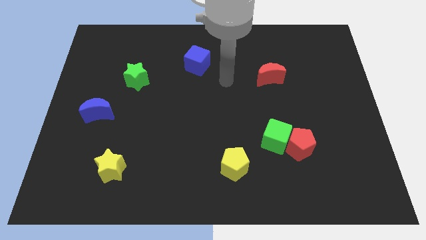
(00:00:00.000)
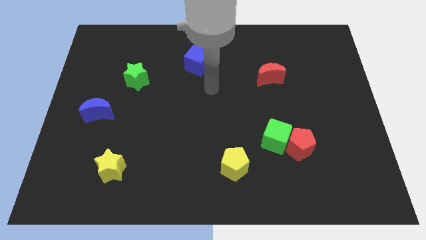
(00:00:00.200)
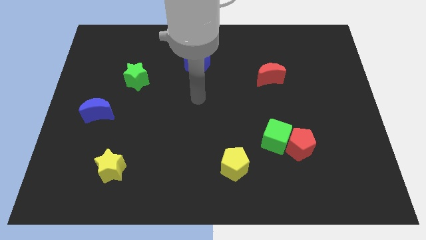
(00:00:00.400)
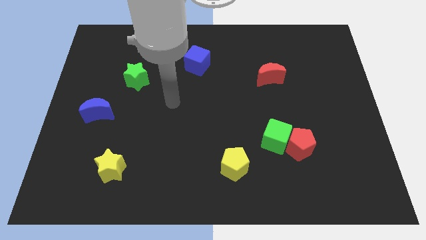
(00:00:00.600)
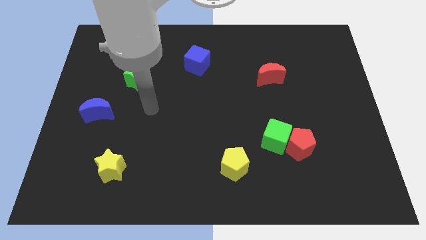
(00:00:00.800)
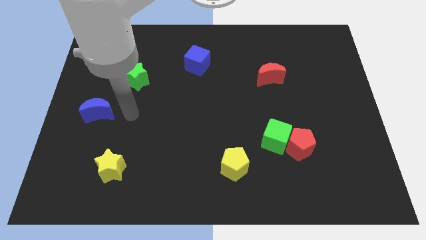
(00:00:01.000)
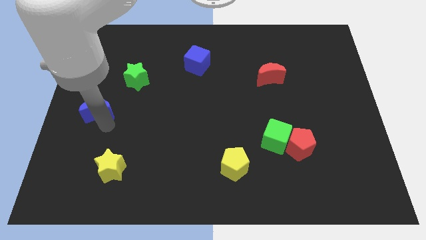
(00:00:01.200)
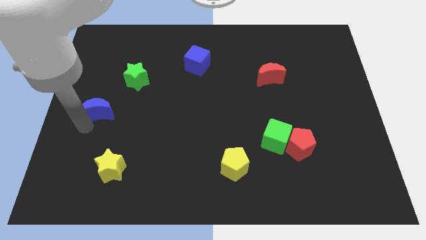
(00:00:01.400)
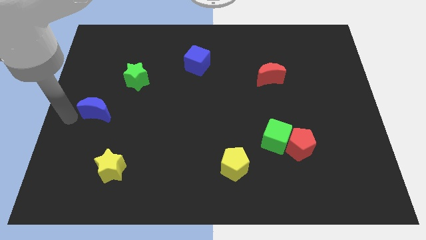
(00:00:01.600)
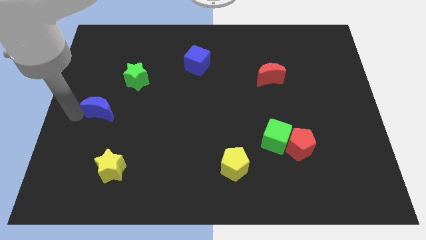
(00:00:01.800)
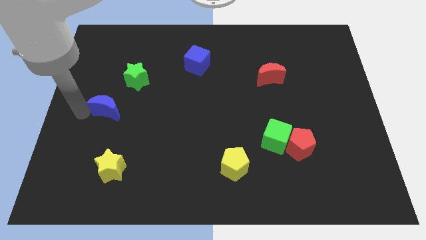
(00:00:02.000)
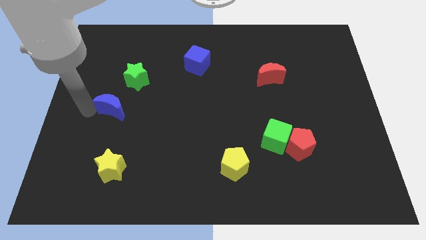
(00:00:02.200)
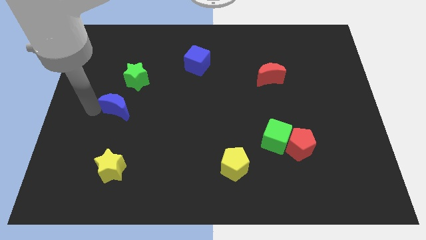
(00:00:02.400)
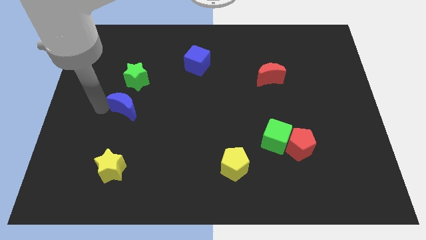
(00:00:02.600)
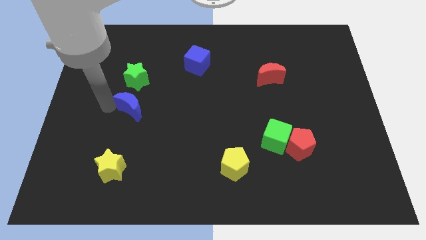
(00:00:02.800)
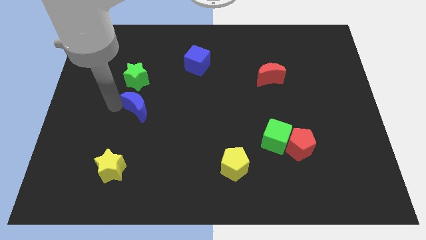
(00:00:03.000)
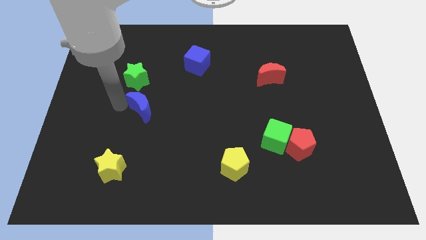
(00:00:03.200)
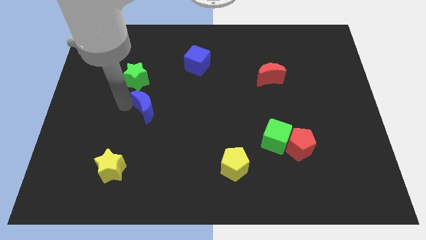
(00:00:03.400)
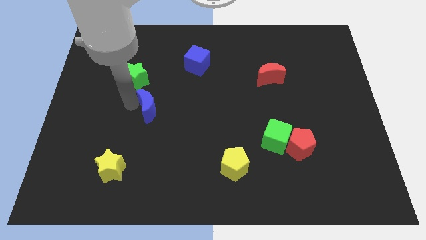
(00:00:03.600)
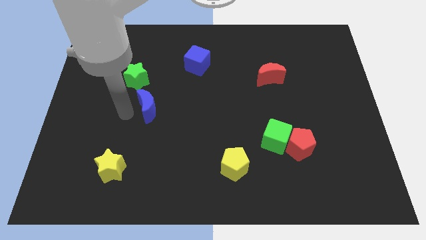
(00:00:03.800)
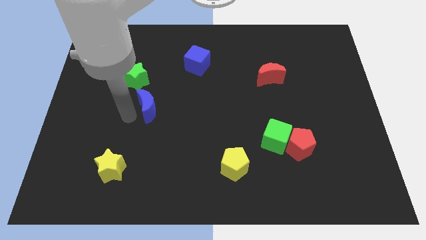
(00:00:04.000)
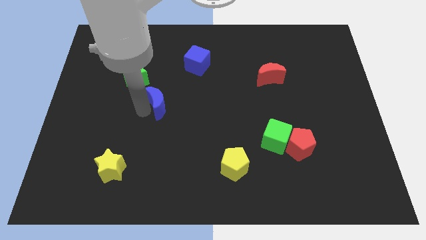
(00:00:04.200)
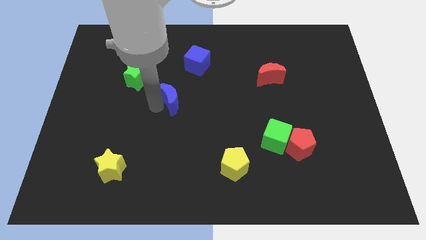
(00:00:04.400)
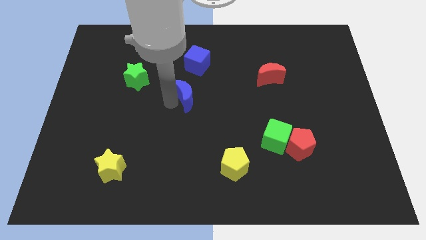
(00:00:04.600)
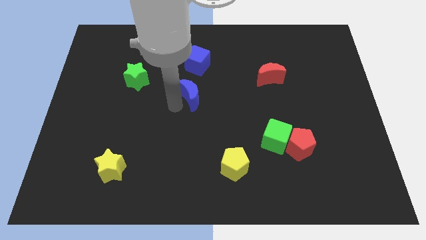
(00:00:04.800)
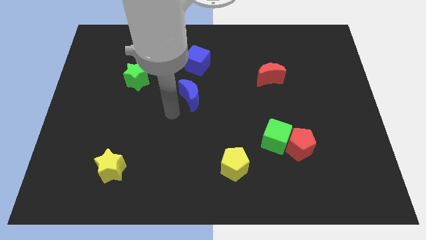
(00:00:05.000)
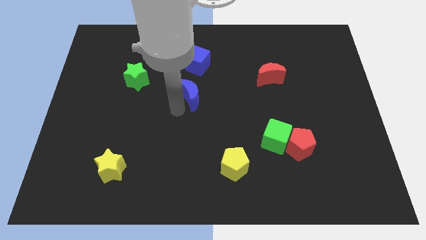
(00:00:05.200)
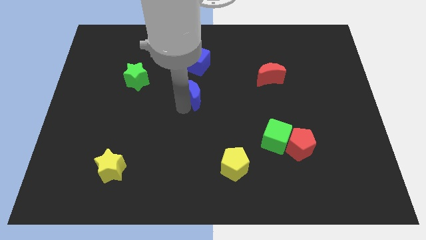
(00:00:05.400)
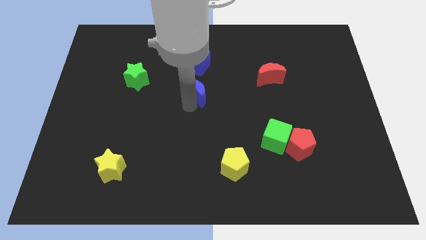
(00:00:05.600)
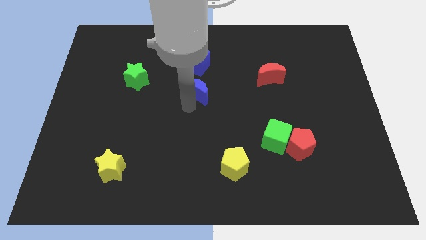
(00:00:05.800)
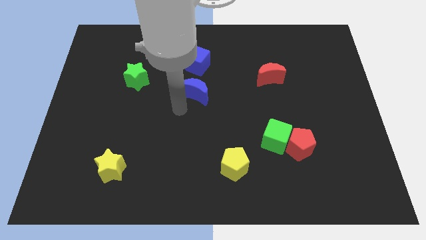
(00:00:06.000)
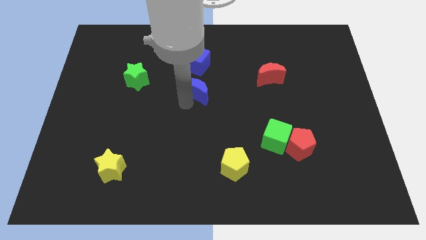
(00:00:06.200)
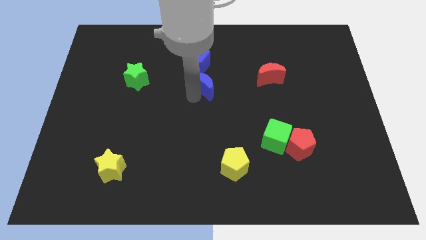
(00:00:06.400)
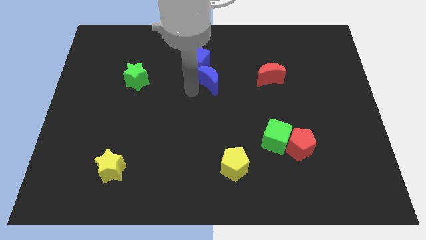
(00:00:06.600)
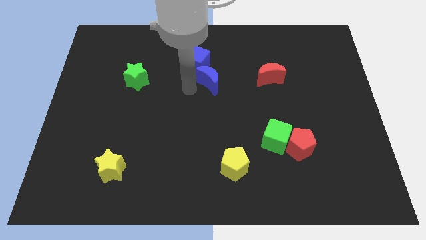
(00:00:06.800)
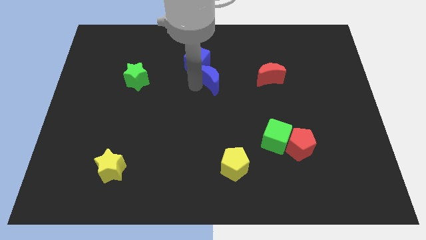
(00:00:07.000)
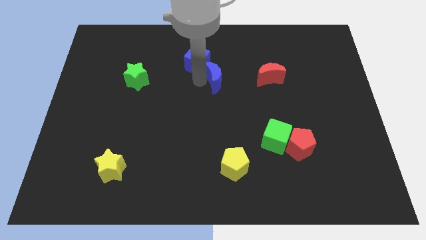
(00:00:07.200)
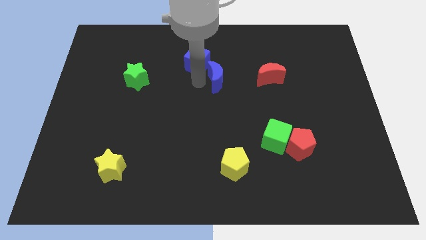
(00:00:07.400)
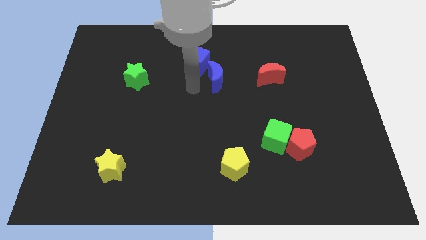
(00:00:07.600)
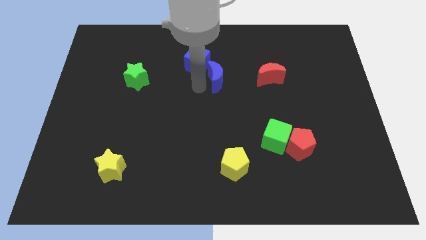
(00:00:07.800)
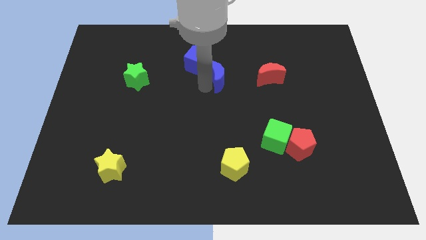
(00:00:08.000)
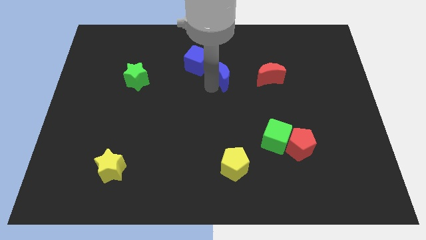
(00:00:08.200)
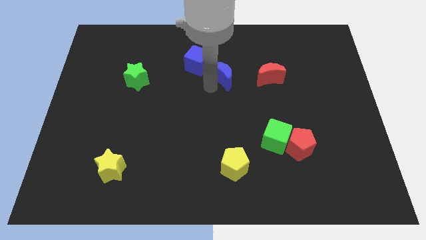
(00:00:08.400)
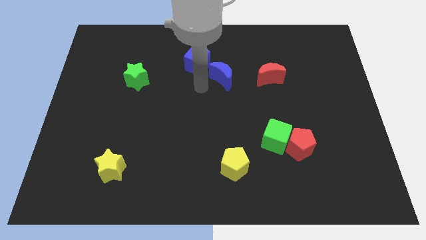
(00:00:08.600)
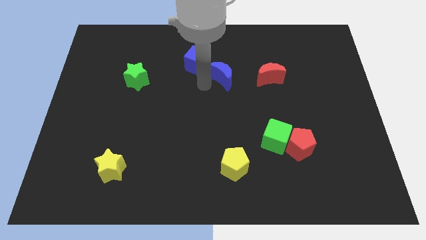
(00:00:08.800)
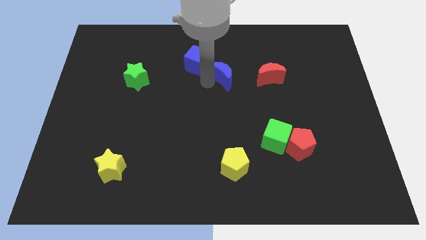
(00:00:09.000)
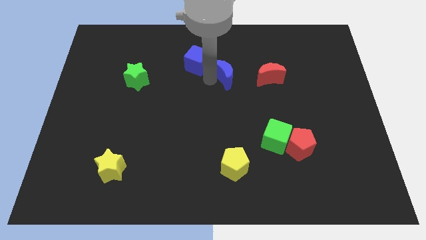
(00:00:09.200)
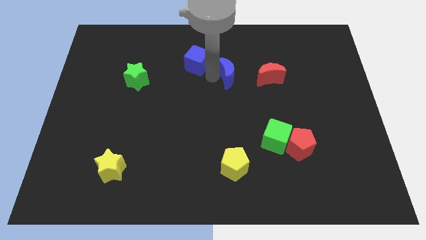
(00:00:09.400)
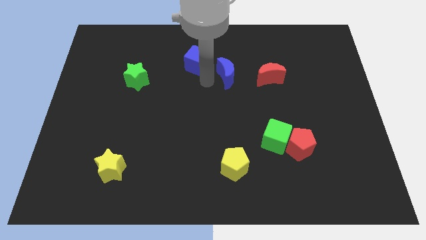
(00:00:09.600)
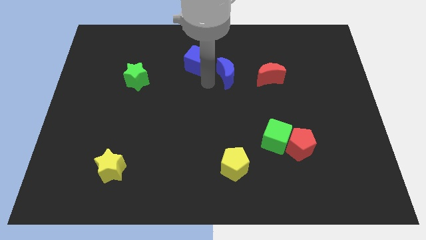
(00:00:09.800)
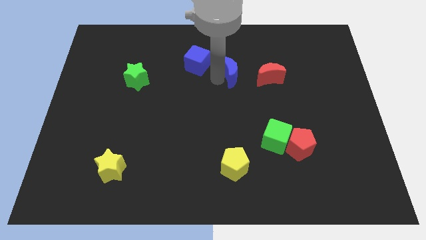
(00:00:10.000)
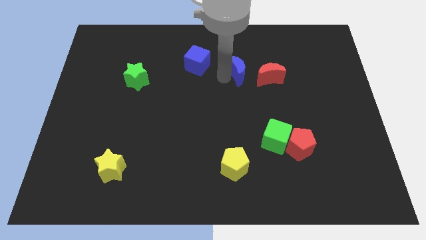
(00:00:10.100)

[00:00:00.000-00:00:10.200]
slide the blue moon diagonally up and to the left of the red moon

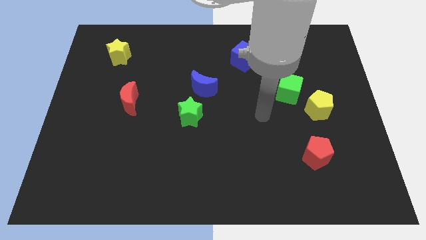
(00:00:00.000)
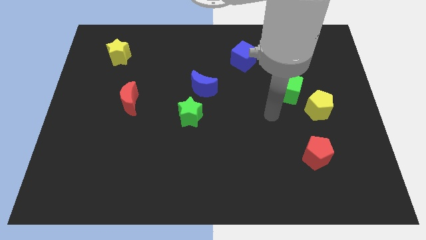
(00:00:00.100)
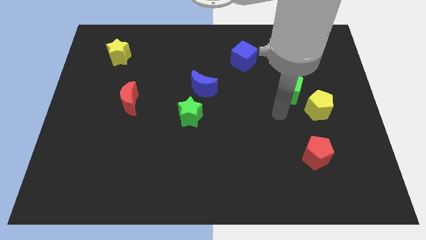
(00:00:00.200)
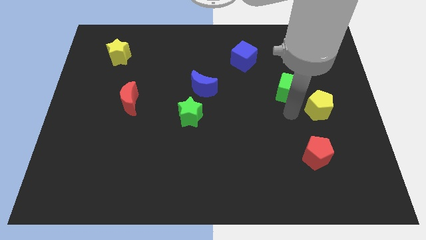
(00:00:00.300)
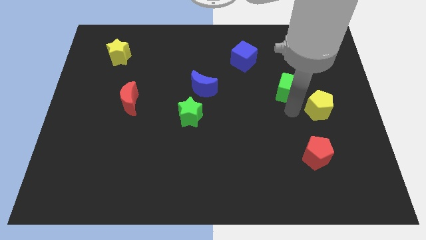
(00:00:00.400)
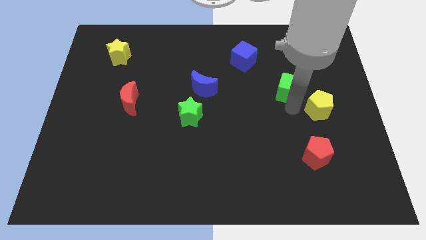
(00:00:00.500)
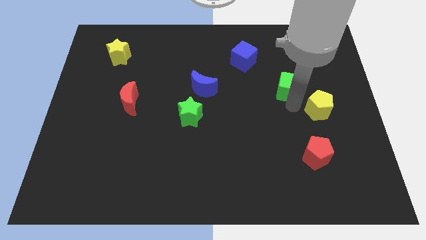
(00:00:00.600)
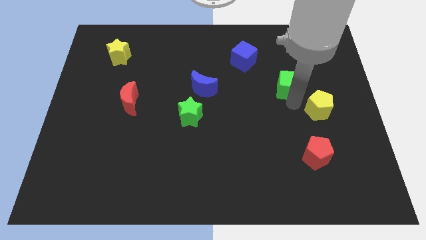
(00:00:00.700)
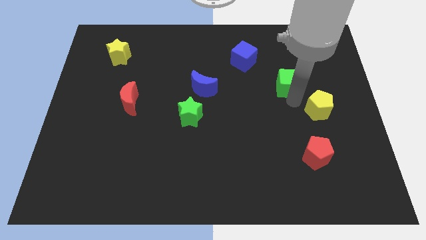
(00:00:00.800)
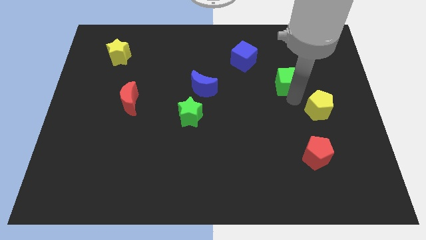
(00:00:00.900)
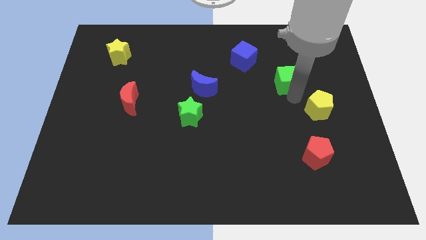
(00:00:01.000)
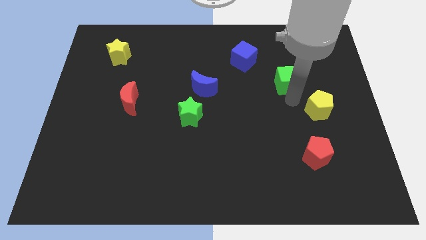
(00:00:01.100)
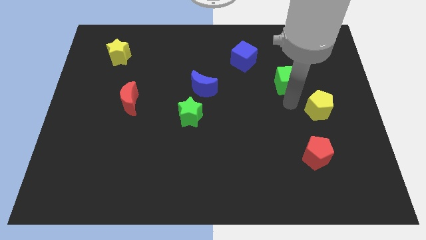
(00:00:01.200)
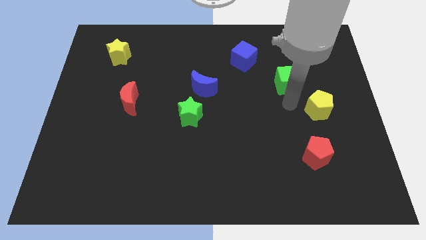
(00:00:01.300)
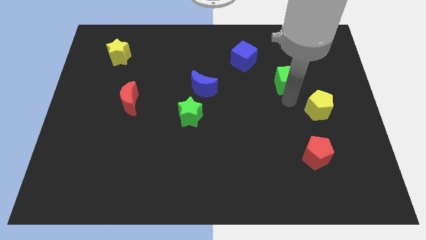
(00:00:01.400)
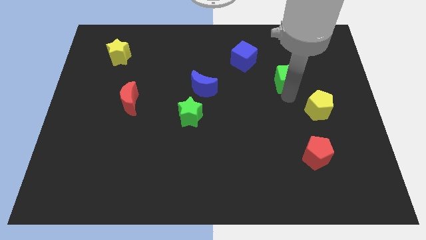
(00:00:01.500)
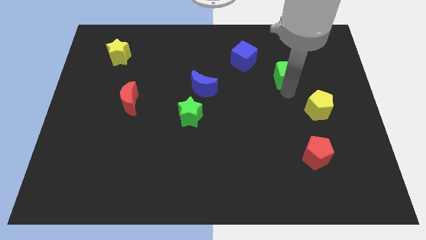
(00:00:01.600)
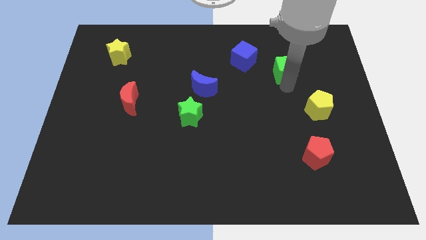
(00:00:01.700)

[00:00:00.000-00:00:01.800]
slide the green cube to the right side of the blue cube
